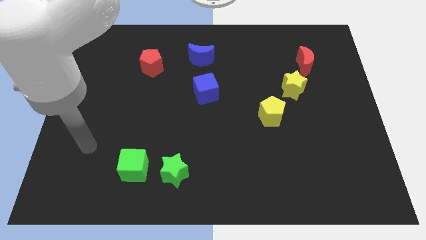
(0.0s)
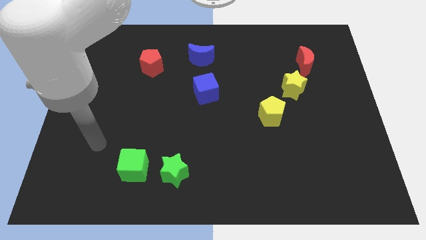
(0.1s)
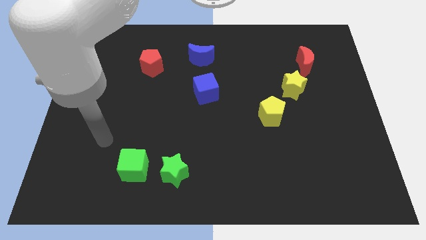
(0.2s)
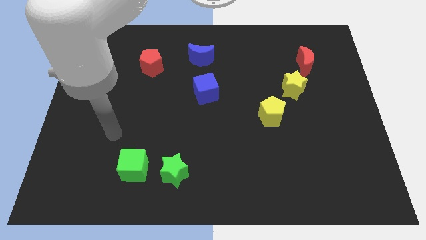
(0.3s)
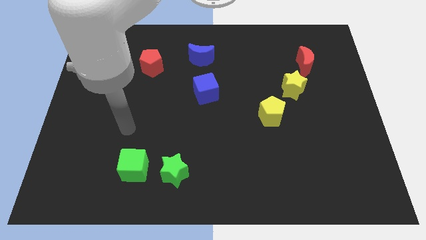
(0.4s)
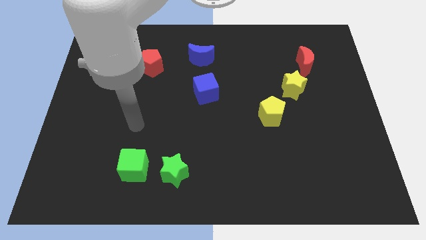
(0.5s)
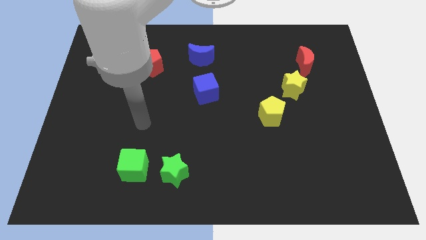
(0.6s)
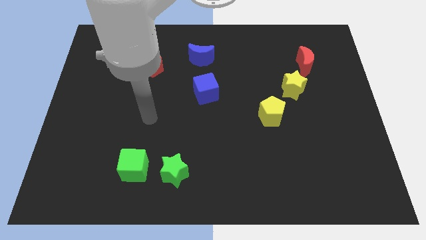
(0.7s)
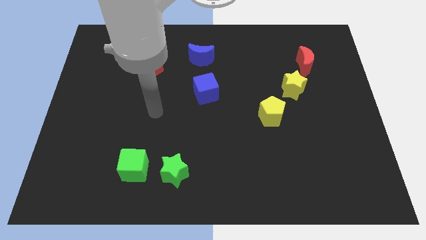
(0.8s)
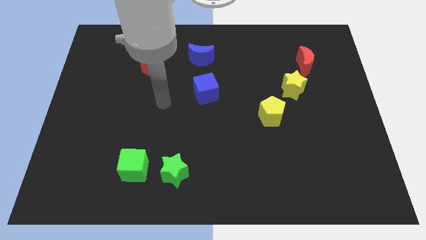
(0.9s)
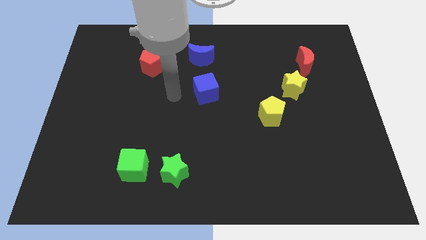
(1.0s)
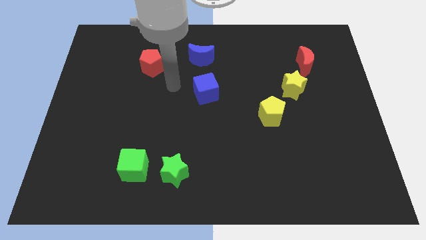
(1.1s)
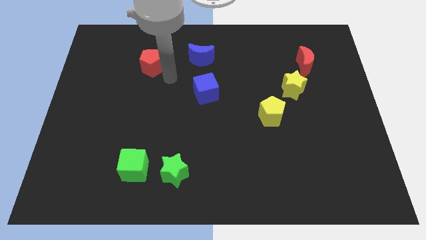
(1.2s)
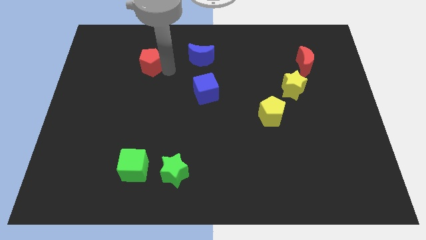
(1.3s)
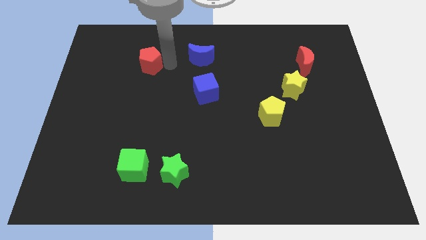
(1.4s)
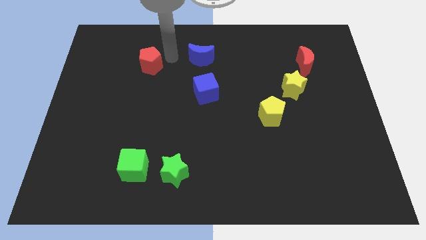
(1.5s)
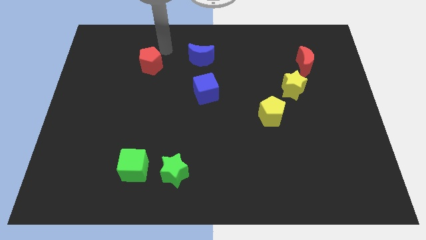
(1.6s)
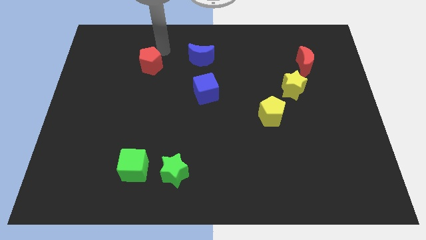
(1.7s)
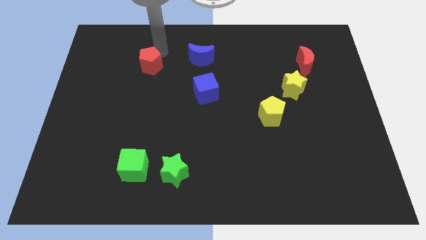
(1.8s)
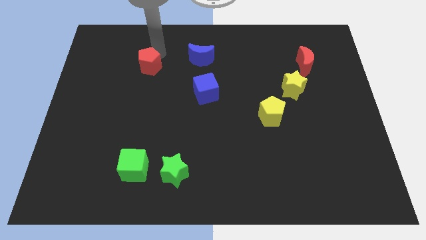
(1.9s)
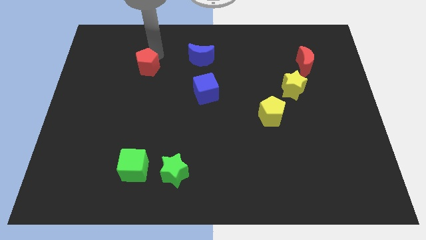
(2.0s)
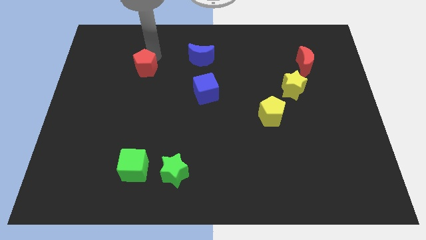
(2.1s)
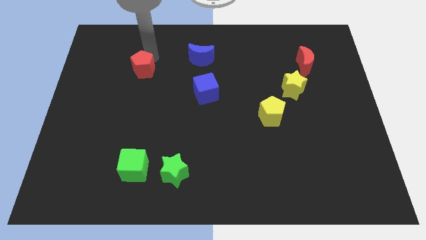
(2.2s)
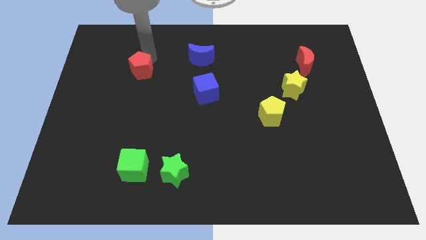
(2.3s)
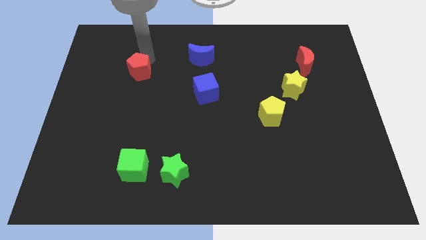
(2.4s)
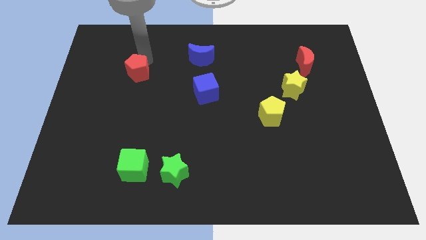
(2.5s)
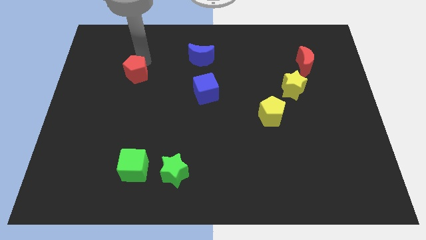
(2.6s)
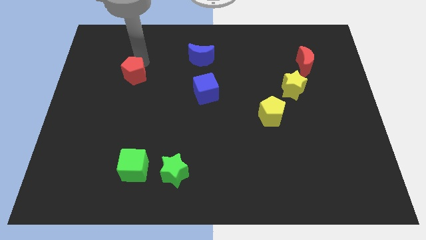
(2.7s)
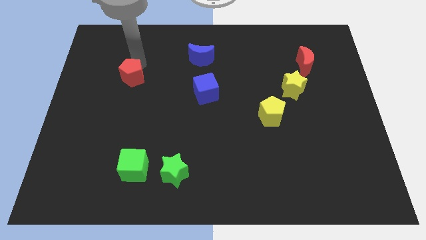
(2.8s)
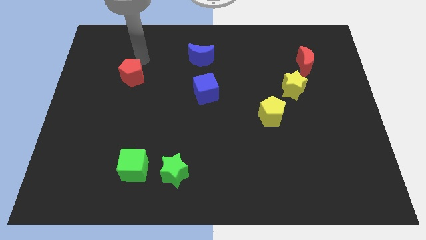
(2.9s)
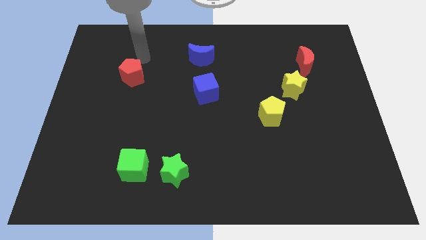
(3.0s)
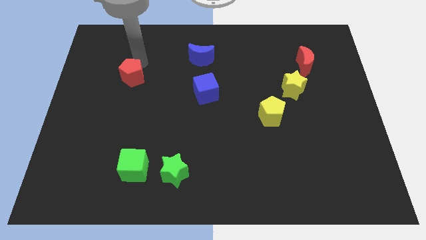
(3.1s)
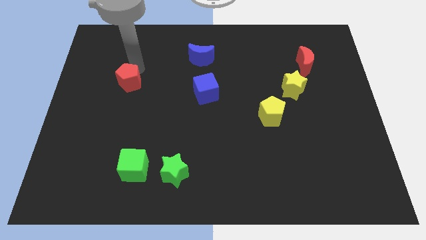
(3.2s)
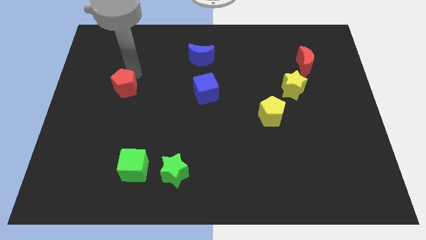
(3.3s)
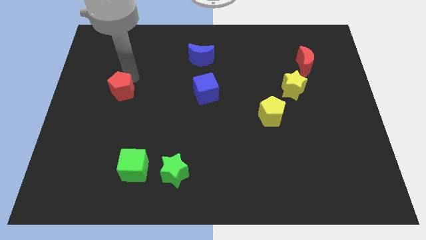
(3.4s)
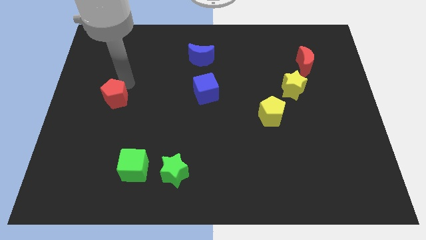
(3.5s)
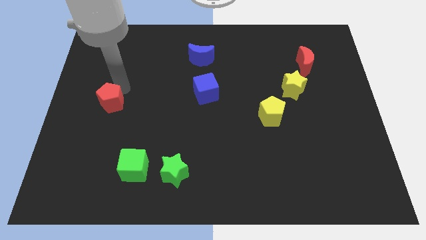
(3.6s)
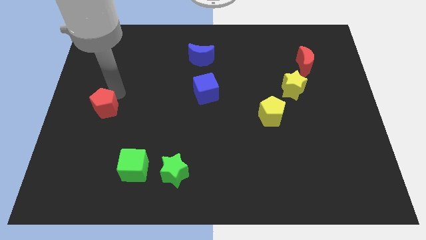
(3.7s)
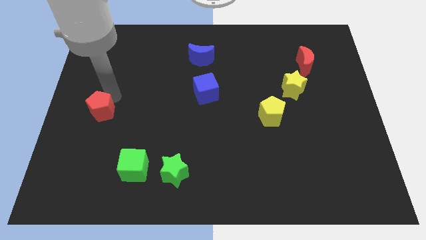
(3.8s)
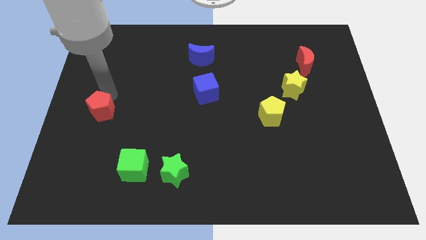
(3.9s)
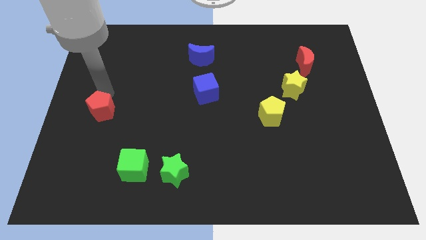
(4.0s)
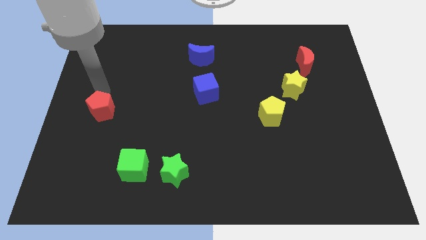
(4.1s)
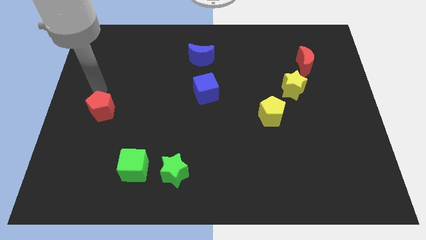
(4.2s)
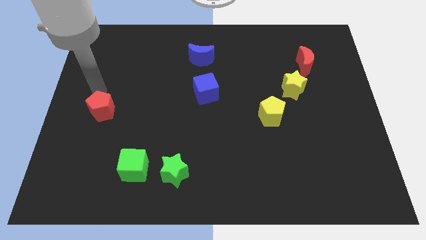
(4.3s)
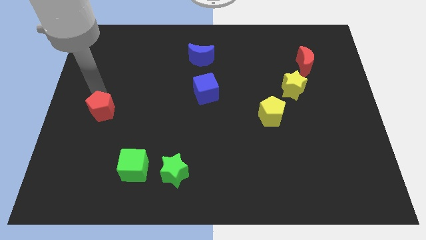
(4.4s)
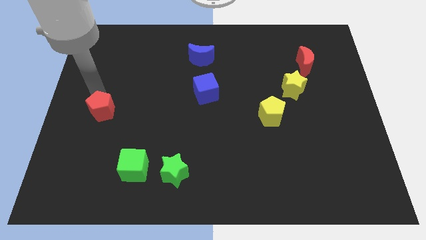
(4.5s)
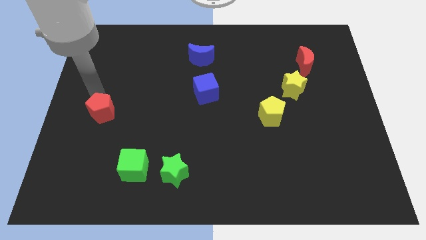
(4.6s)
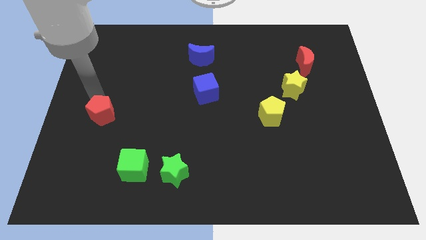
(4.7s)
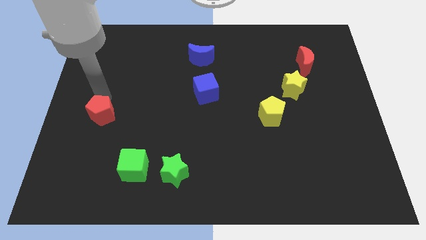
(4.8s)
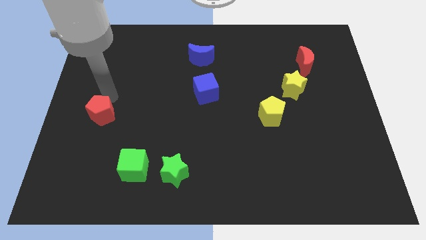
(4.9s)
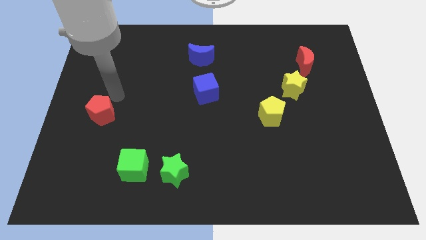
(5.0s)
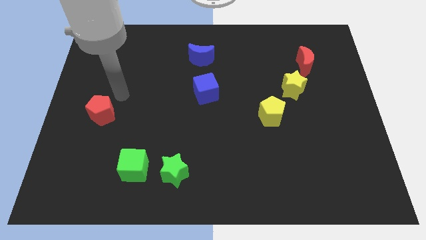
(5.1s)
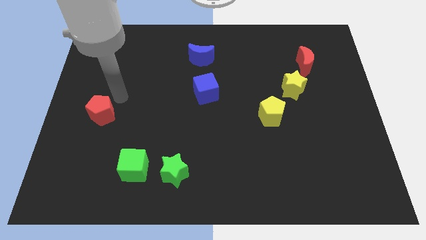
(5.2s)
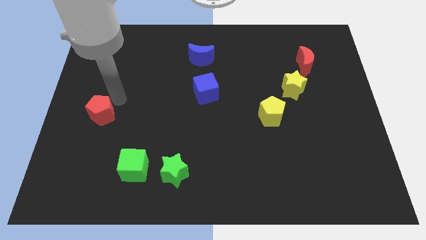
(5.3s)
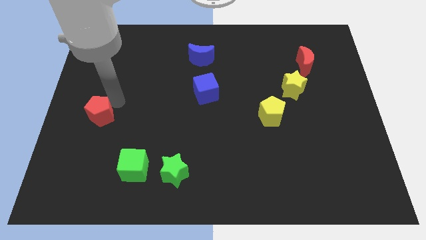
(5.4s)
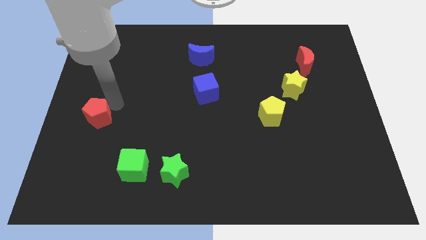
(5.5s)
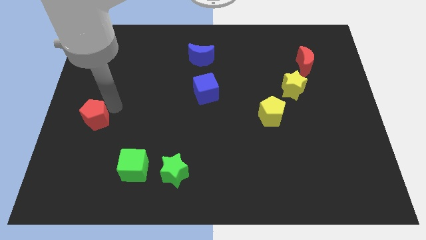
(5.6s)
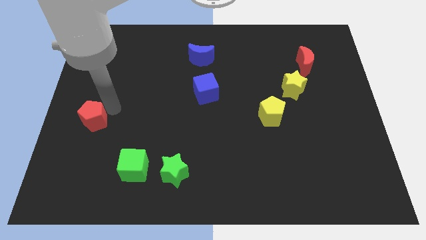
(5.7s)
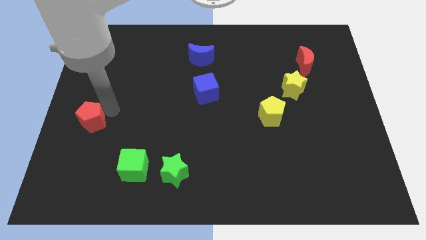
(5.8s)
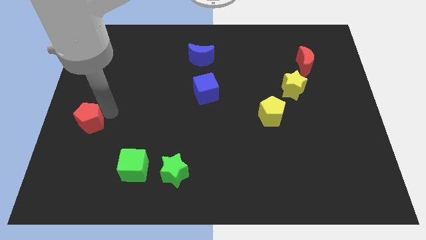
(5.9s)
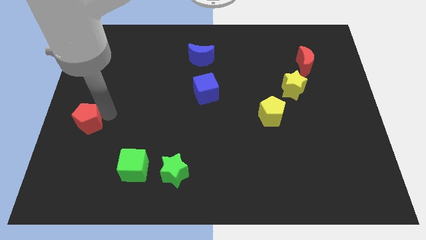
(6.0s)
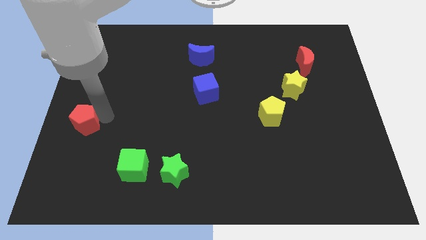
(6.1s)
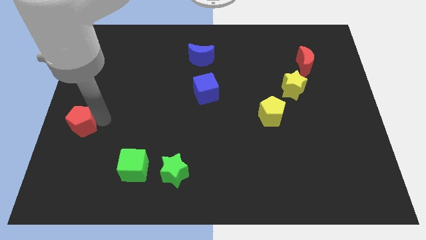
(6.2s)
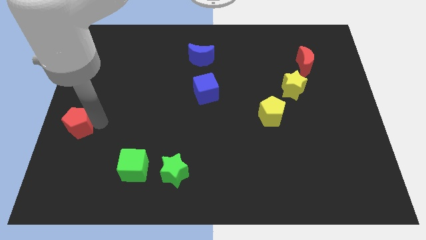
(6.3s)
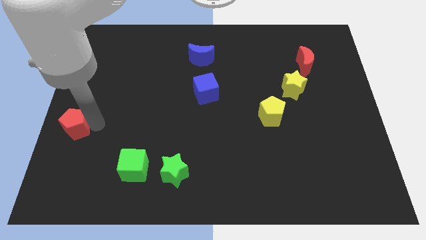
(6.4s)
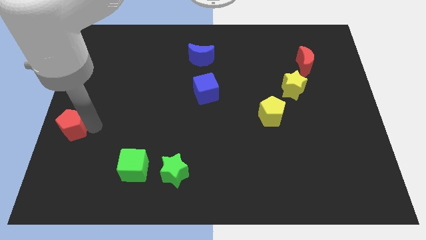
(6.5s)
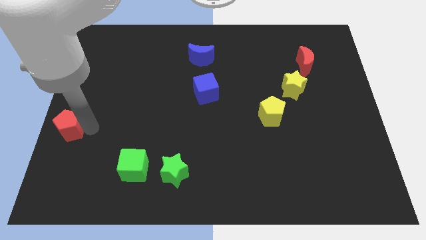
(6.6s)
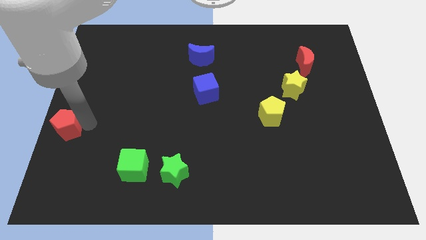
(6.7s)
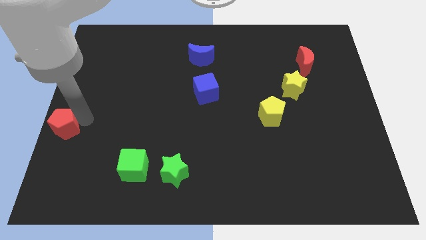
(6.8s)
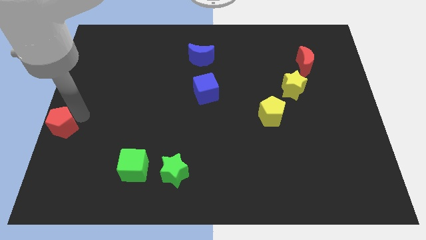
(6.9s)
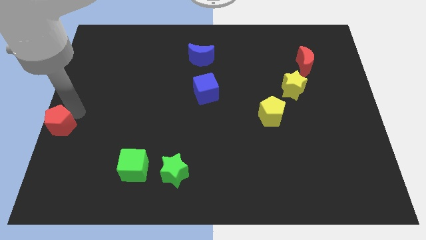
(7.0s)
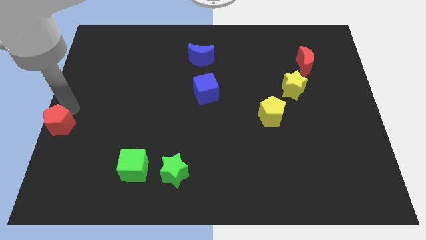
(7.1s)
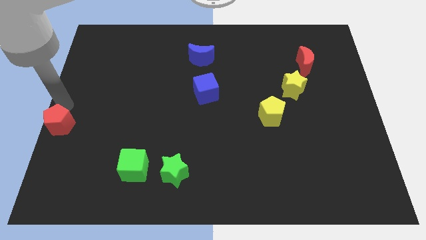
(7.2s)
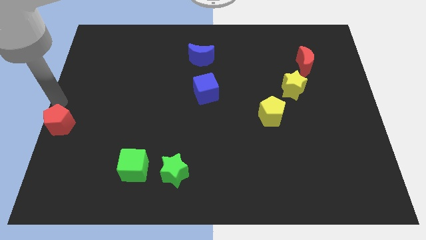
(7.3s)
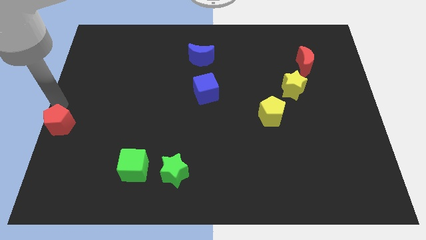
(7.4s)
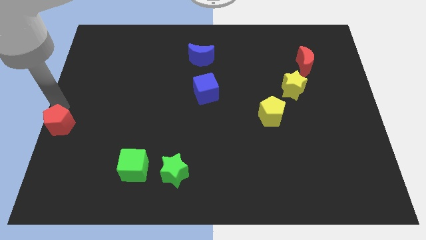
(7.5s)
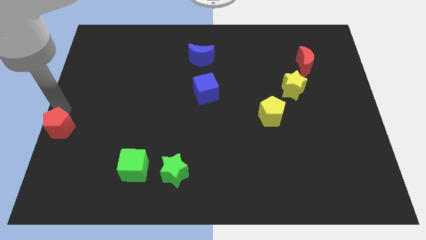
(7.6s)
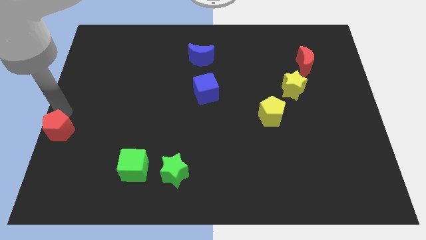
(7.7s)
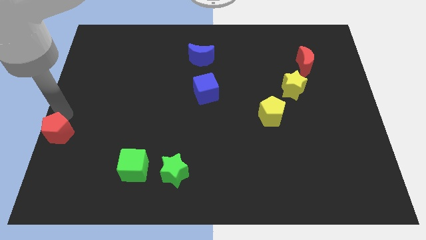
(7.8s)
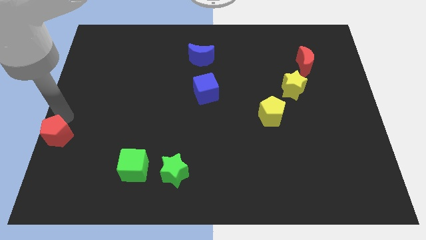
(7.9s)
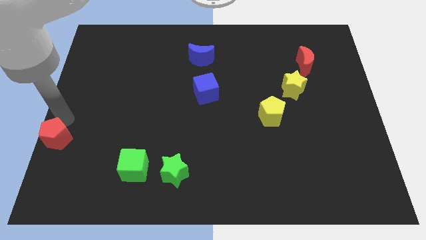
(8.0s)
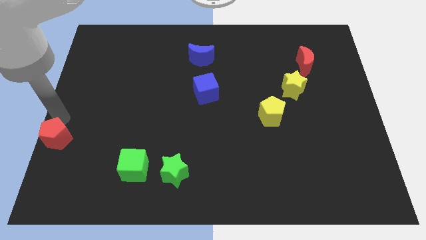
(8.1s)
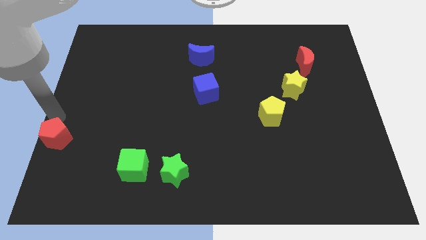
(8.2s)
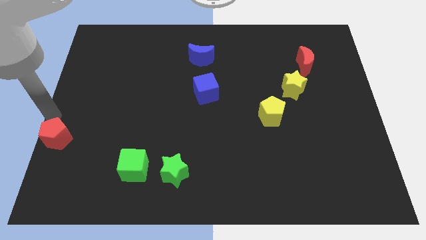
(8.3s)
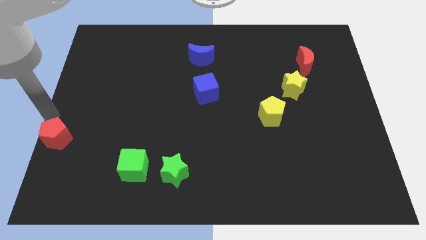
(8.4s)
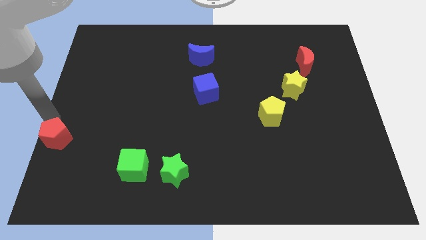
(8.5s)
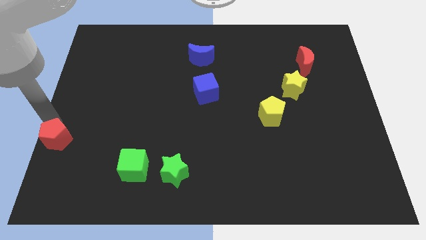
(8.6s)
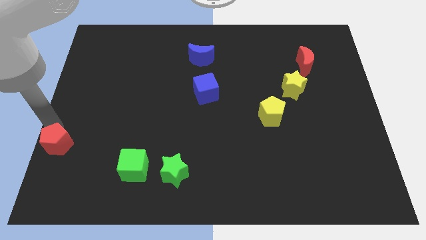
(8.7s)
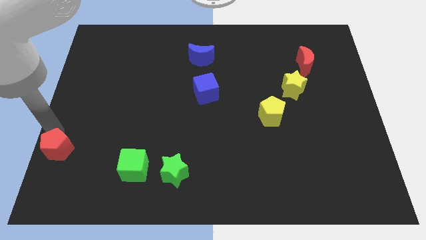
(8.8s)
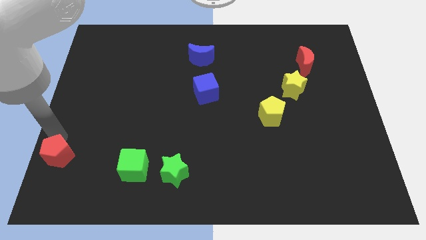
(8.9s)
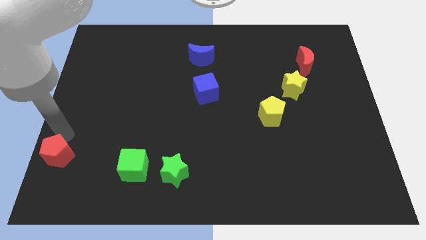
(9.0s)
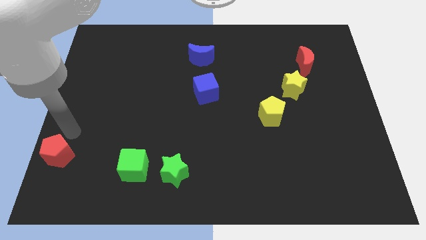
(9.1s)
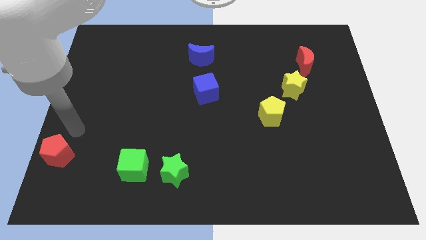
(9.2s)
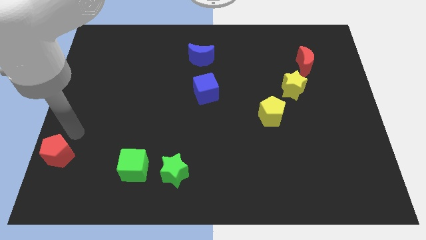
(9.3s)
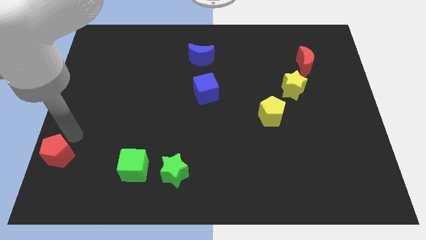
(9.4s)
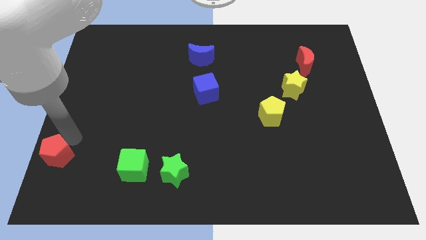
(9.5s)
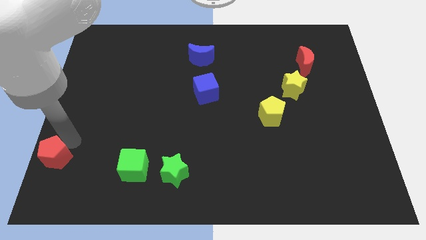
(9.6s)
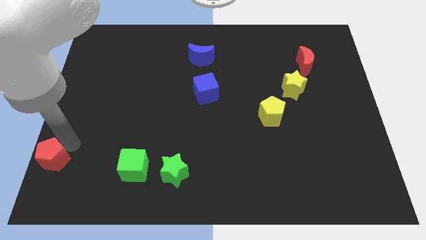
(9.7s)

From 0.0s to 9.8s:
move the red pentagon to the bottom left corner
